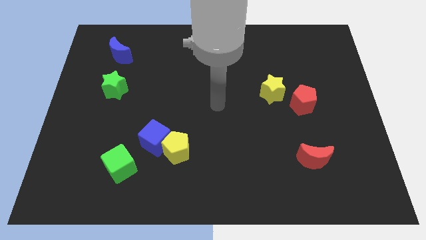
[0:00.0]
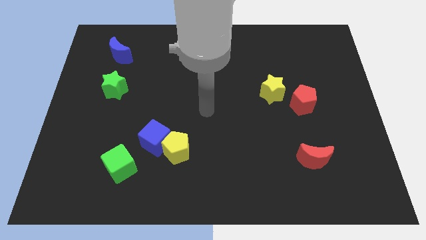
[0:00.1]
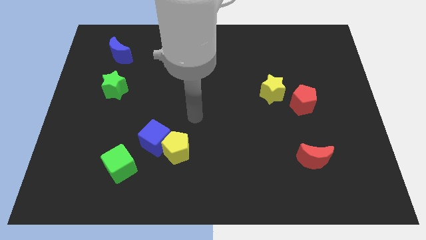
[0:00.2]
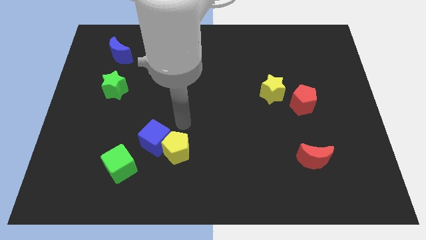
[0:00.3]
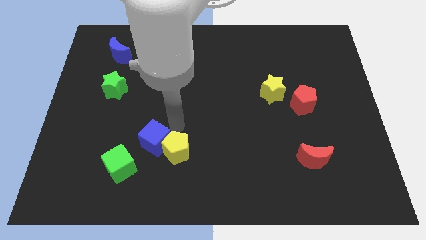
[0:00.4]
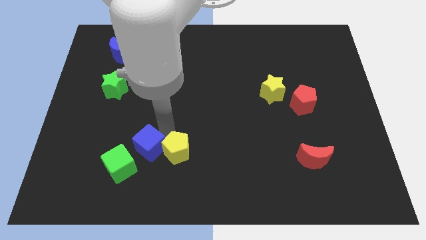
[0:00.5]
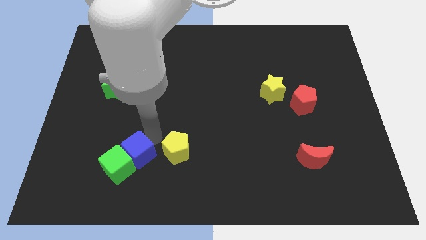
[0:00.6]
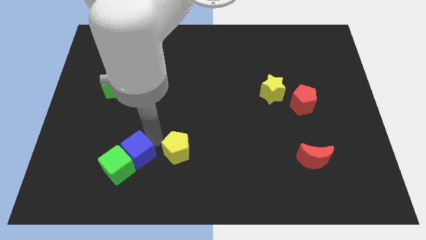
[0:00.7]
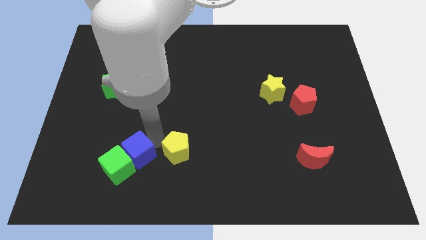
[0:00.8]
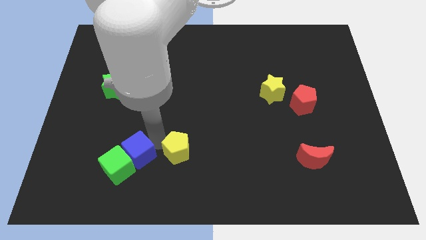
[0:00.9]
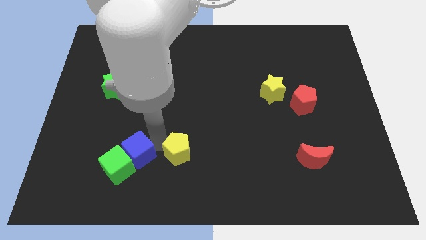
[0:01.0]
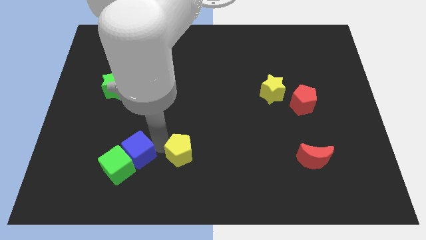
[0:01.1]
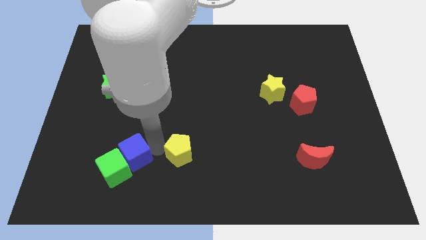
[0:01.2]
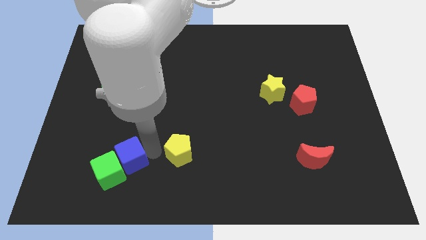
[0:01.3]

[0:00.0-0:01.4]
pull the yellow pentagon apart from the blue cube

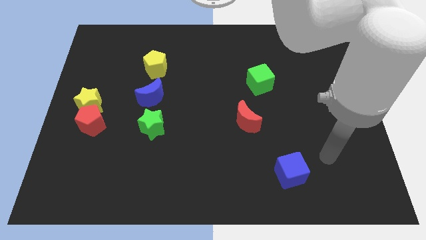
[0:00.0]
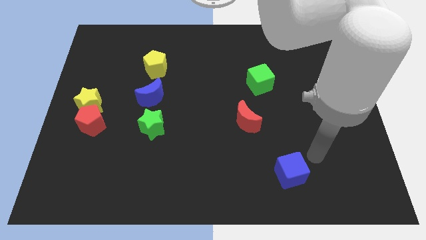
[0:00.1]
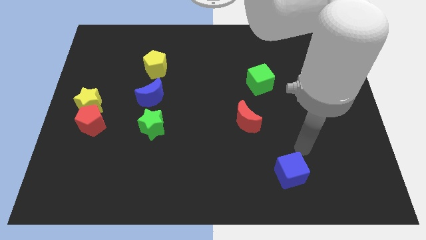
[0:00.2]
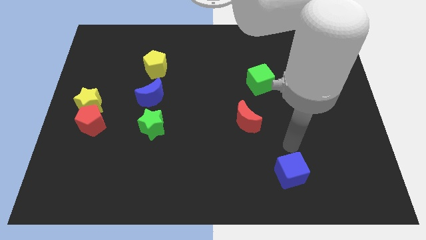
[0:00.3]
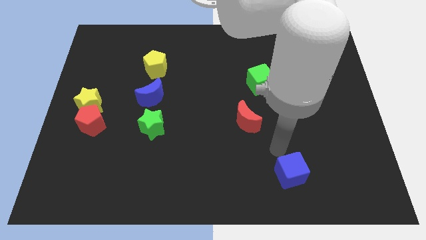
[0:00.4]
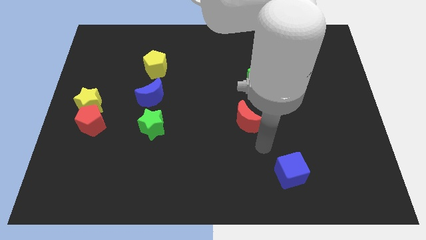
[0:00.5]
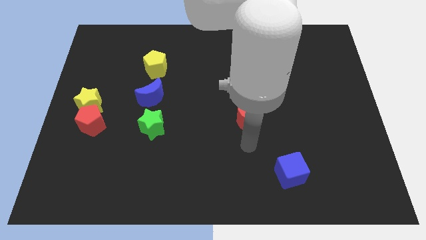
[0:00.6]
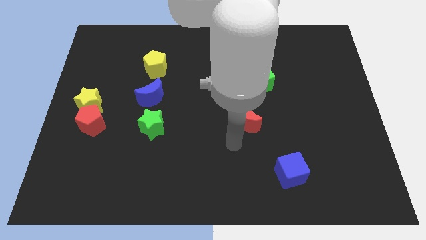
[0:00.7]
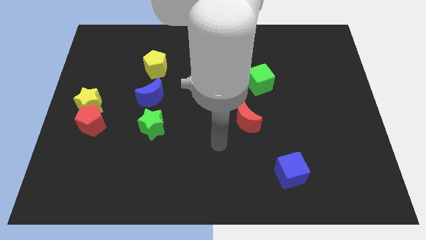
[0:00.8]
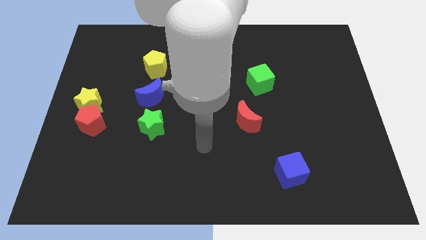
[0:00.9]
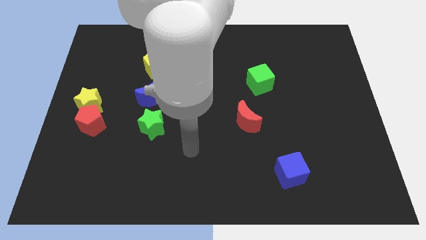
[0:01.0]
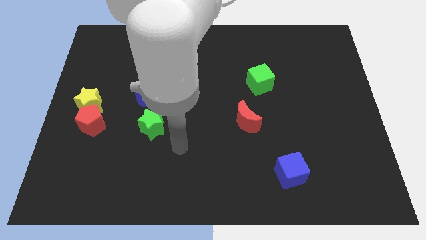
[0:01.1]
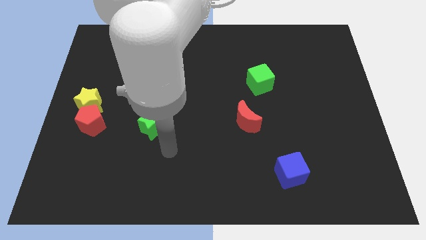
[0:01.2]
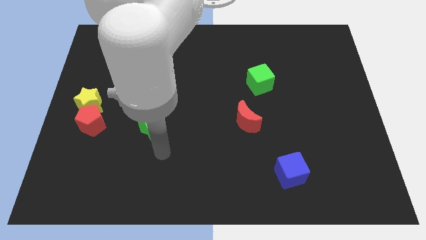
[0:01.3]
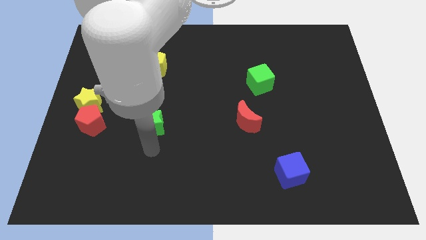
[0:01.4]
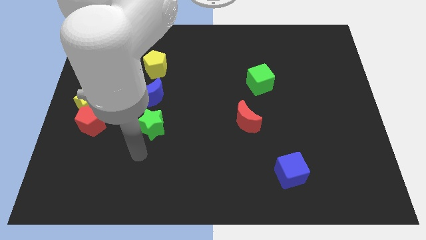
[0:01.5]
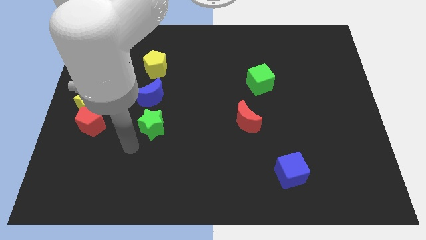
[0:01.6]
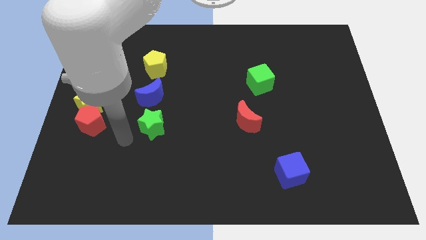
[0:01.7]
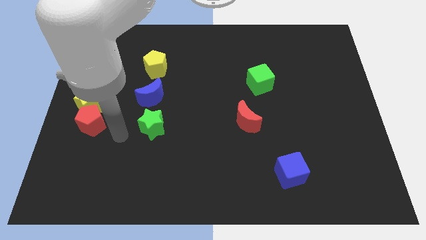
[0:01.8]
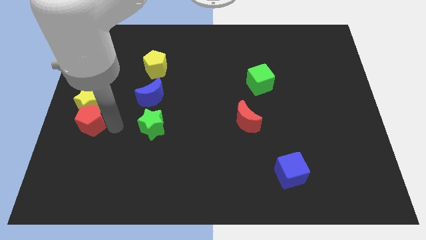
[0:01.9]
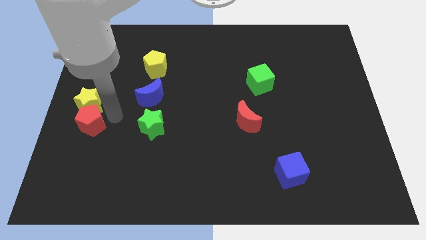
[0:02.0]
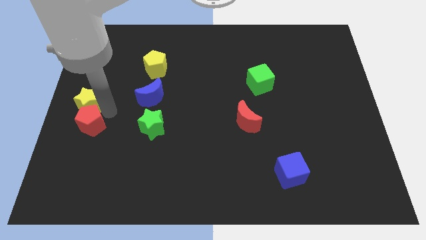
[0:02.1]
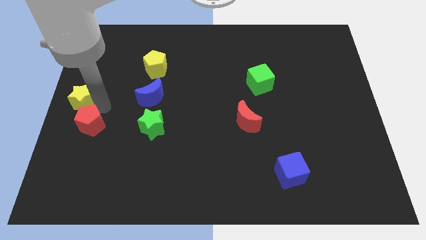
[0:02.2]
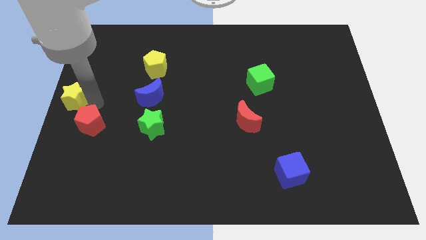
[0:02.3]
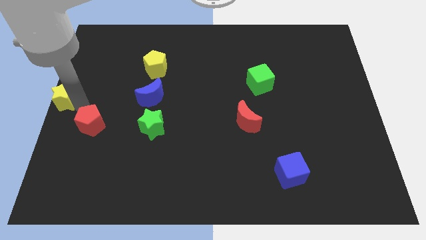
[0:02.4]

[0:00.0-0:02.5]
separate the red pentagon from the yellow star

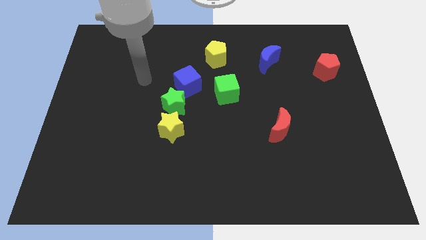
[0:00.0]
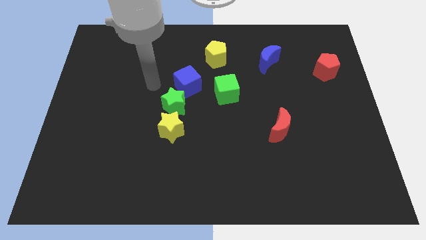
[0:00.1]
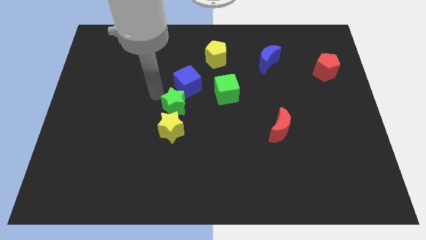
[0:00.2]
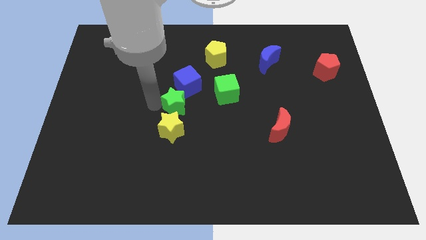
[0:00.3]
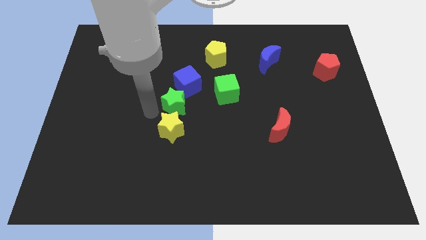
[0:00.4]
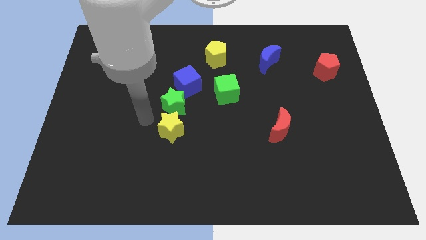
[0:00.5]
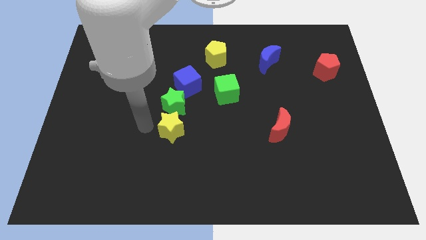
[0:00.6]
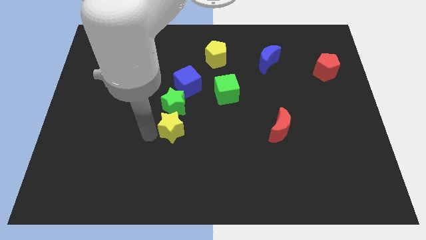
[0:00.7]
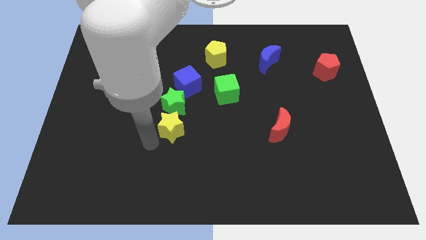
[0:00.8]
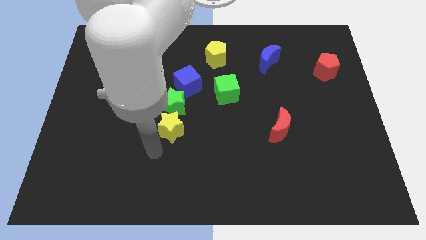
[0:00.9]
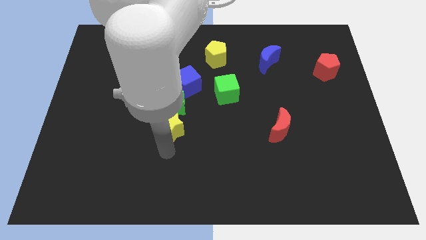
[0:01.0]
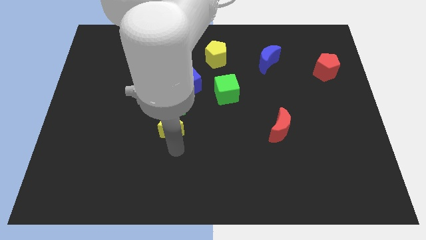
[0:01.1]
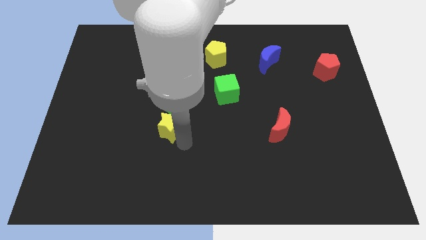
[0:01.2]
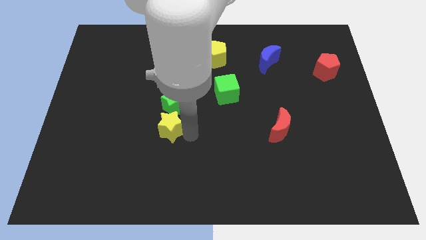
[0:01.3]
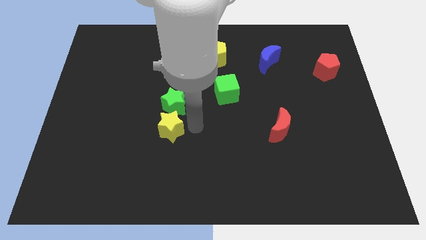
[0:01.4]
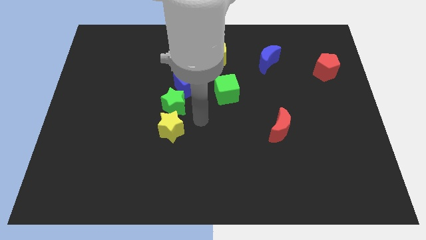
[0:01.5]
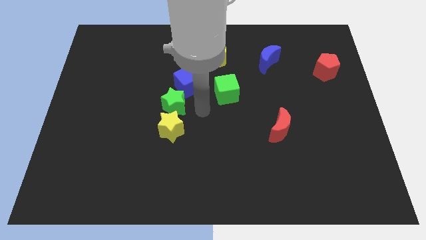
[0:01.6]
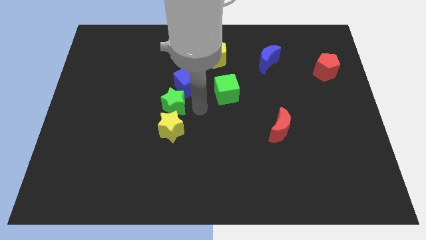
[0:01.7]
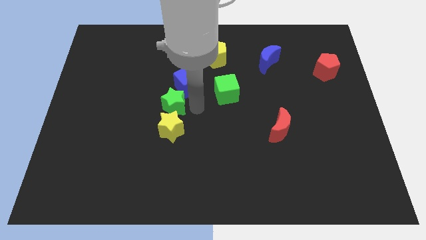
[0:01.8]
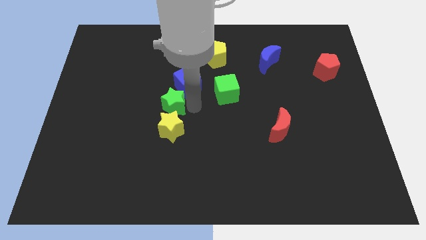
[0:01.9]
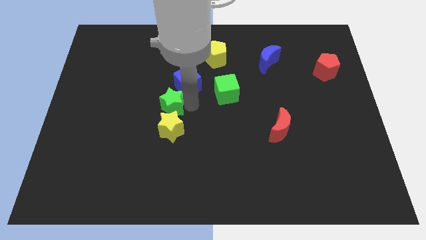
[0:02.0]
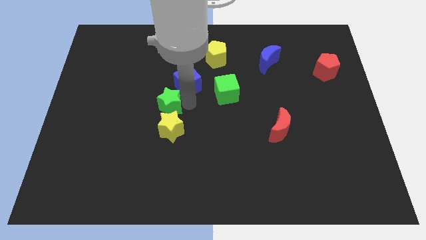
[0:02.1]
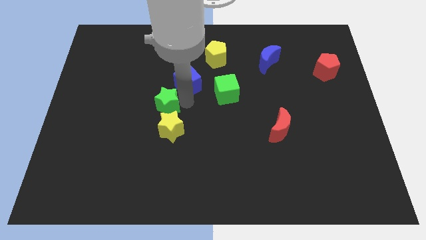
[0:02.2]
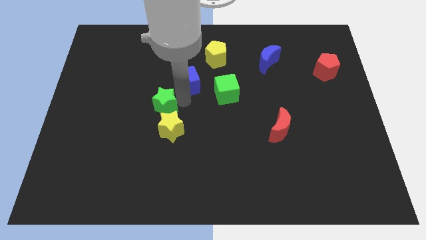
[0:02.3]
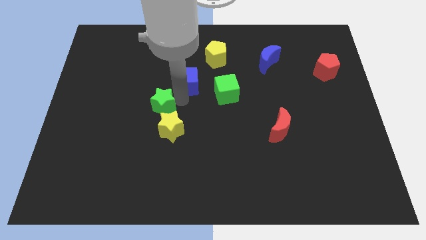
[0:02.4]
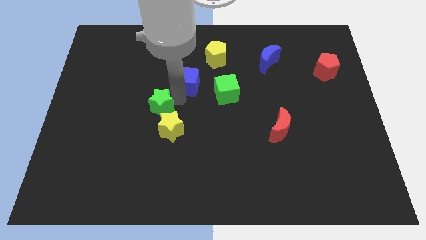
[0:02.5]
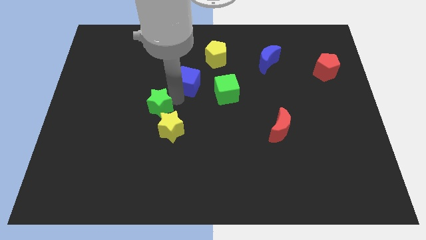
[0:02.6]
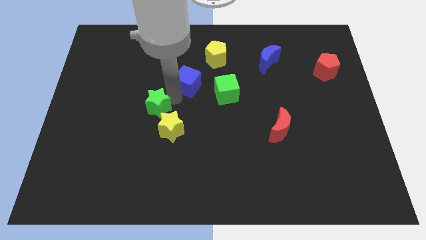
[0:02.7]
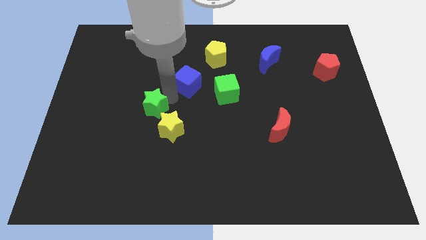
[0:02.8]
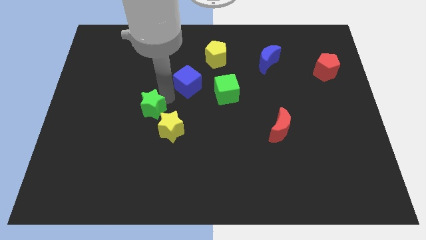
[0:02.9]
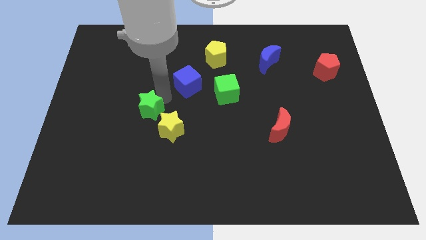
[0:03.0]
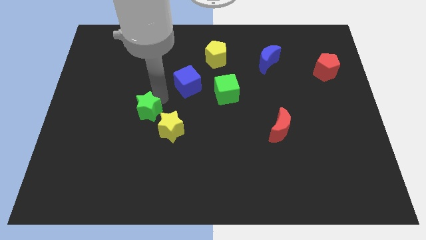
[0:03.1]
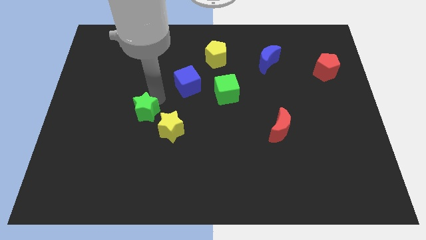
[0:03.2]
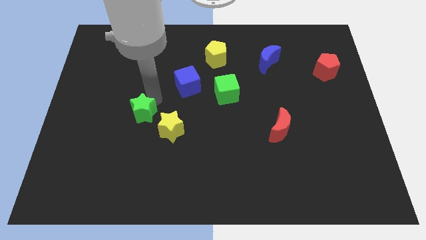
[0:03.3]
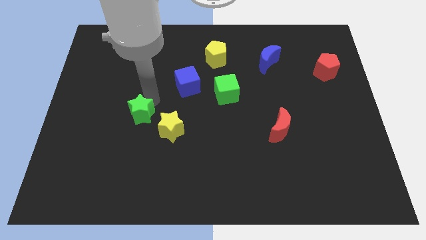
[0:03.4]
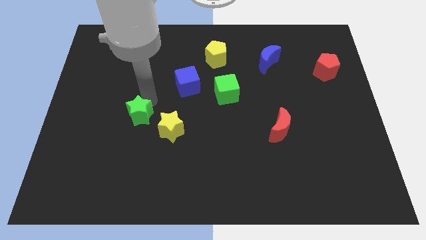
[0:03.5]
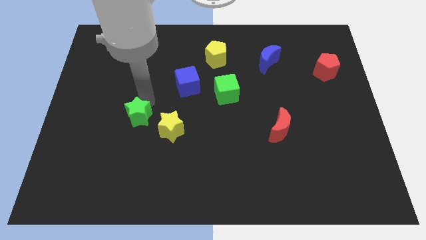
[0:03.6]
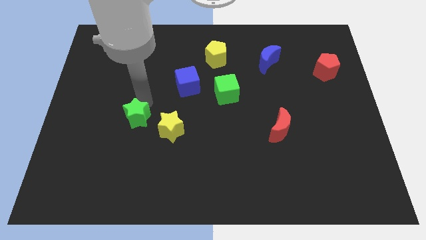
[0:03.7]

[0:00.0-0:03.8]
pull the green star apart from the blue cube and yellow star

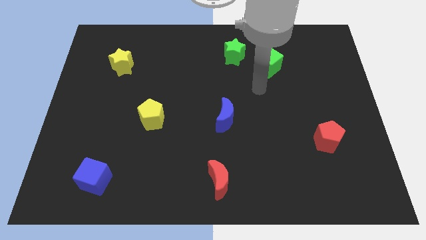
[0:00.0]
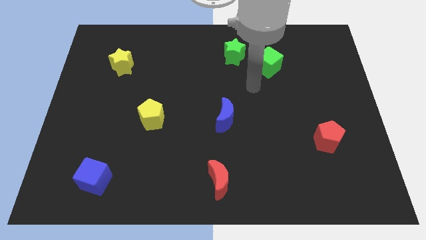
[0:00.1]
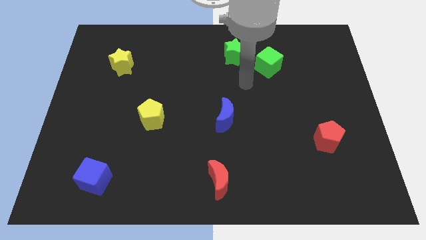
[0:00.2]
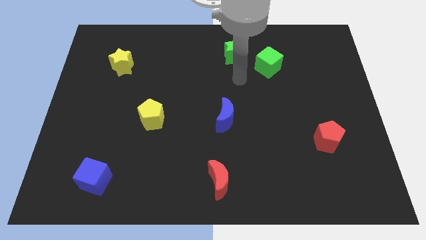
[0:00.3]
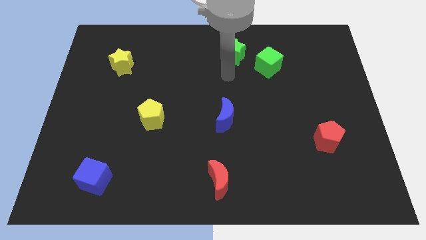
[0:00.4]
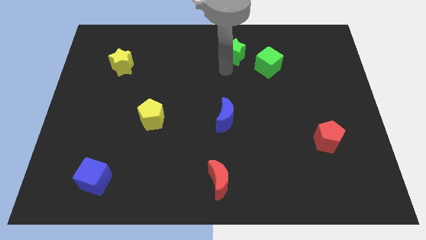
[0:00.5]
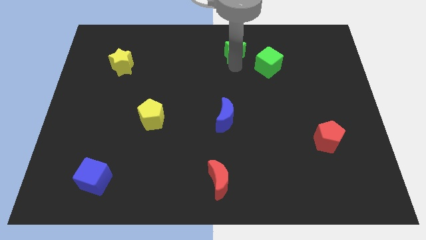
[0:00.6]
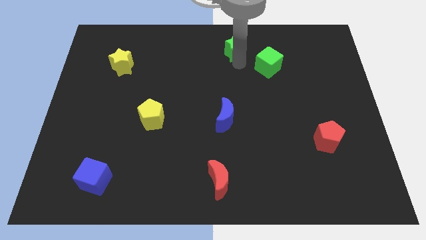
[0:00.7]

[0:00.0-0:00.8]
pull the green cube apart from the green star

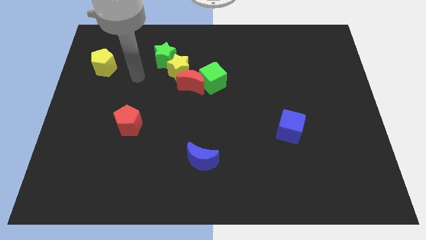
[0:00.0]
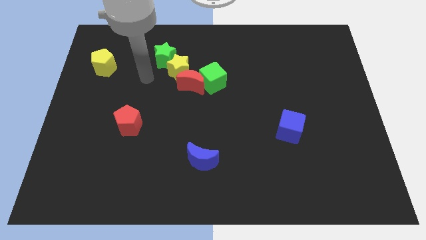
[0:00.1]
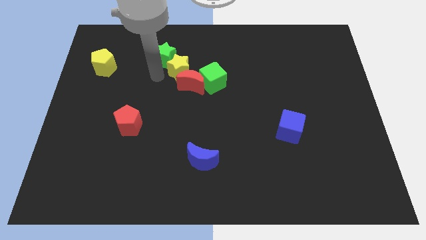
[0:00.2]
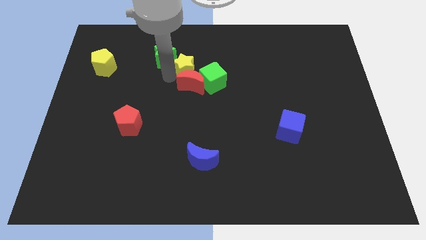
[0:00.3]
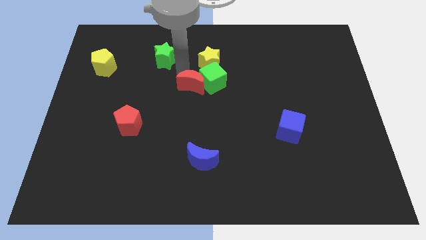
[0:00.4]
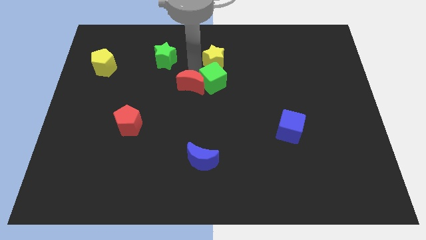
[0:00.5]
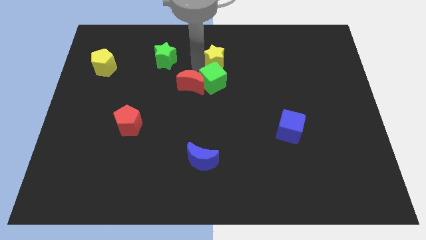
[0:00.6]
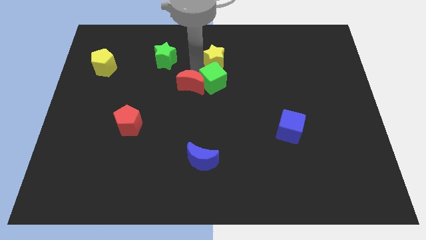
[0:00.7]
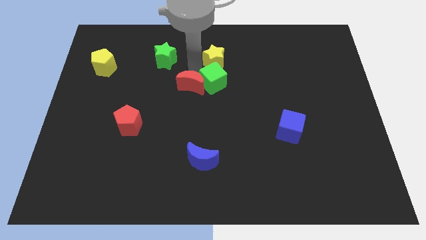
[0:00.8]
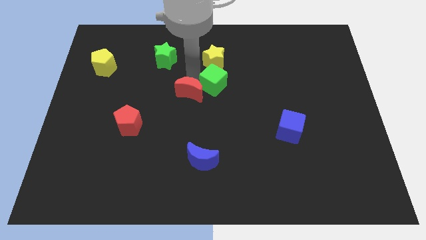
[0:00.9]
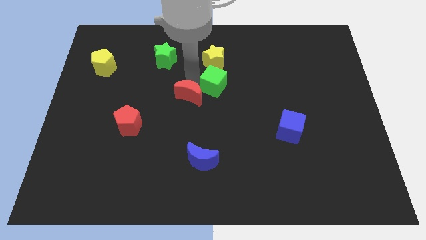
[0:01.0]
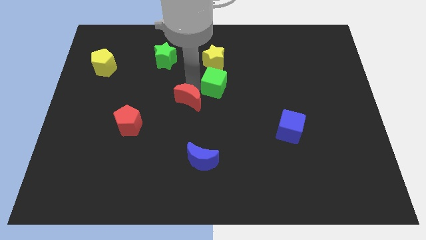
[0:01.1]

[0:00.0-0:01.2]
separate the red moon from the green cube and yellow star
